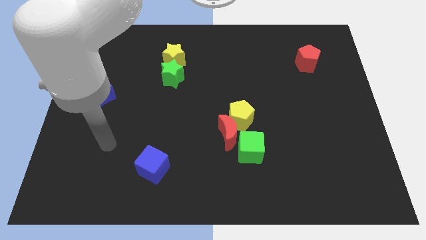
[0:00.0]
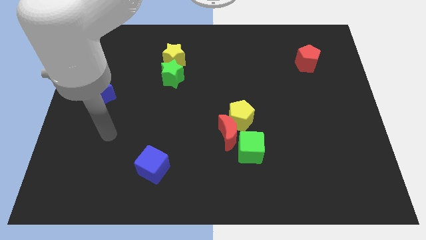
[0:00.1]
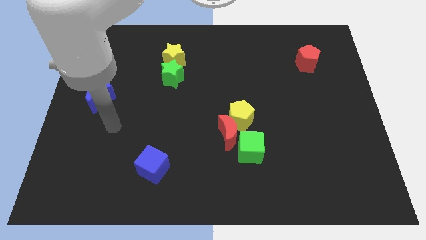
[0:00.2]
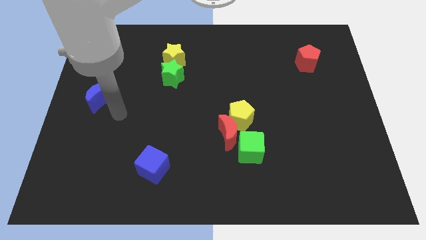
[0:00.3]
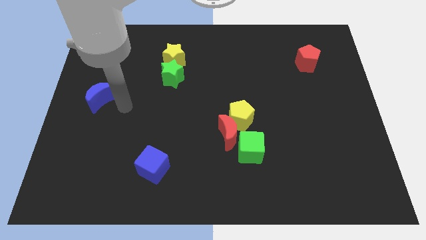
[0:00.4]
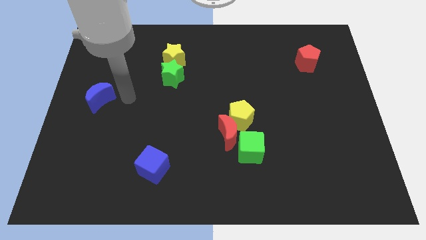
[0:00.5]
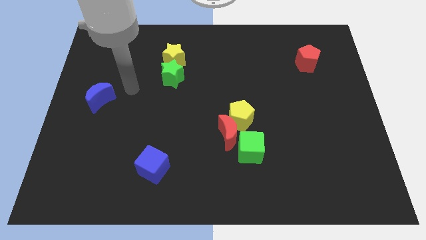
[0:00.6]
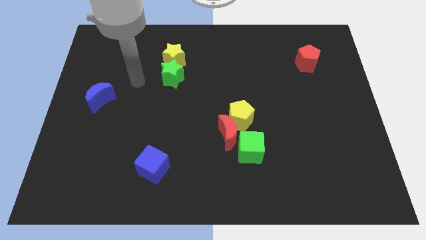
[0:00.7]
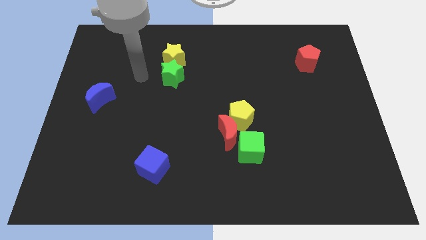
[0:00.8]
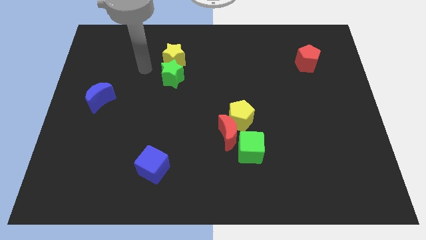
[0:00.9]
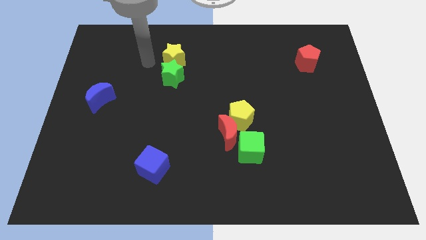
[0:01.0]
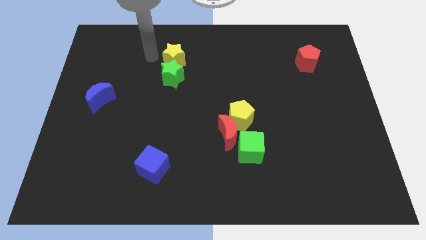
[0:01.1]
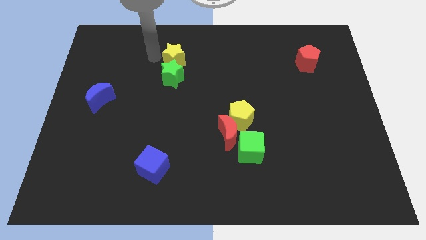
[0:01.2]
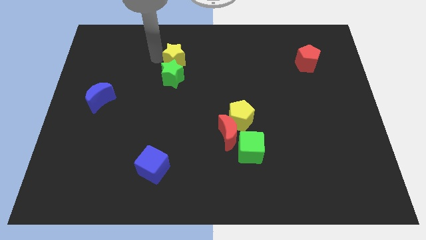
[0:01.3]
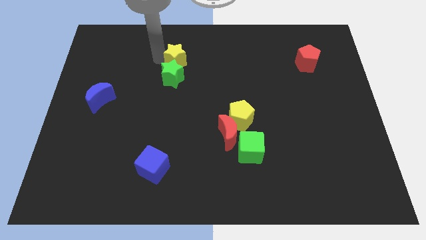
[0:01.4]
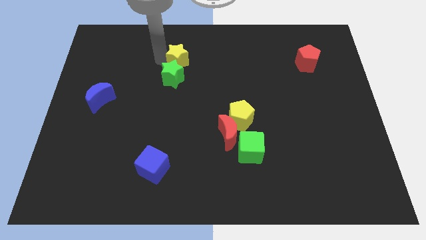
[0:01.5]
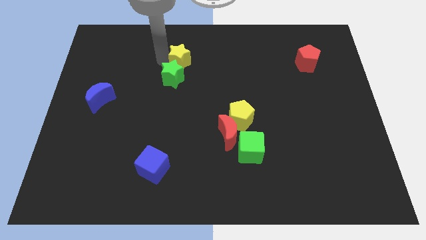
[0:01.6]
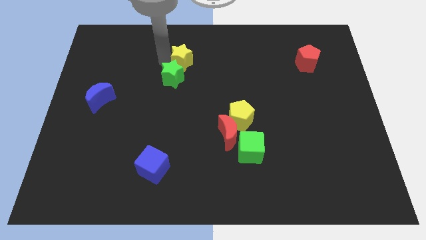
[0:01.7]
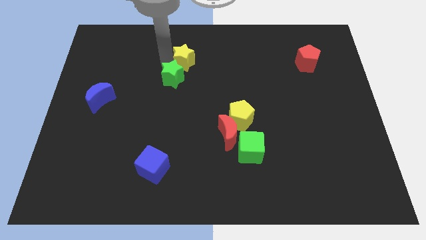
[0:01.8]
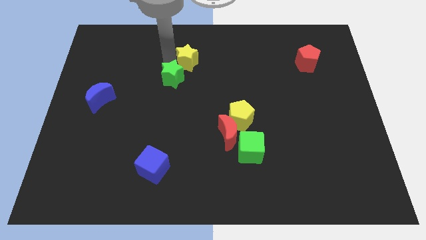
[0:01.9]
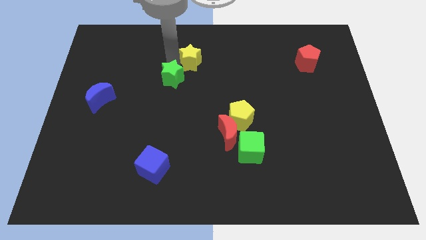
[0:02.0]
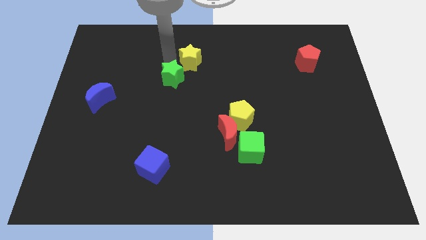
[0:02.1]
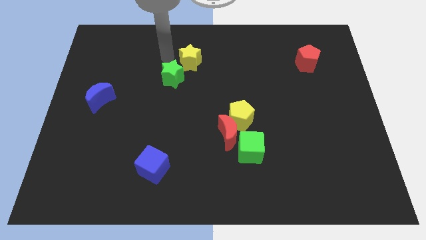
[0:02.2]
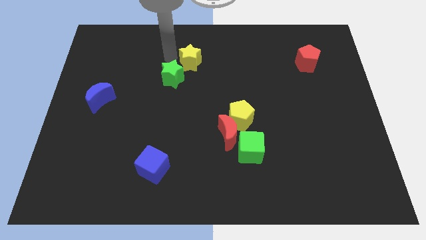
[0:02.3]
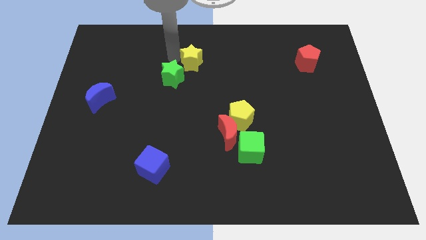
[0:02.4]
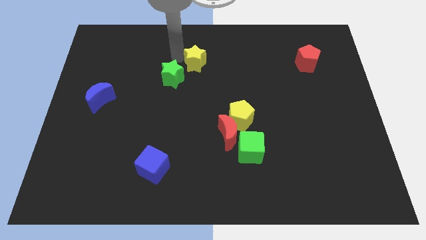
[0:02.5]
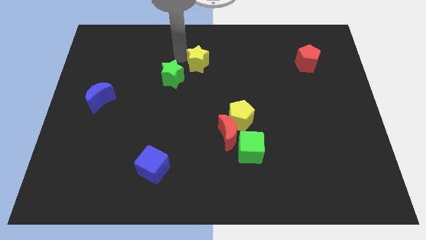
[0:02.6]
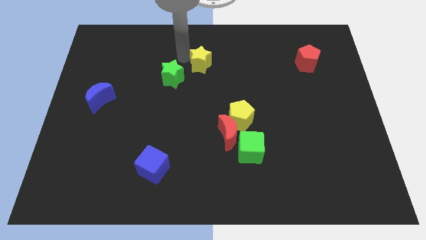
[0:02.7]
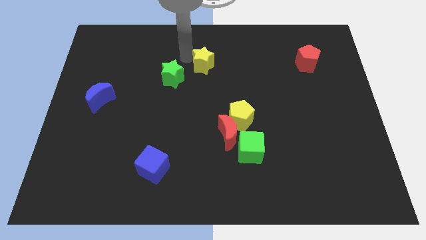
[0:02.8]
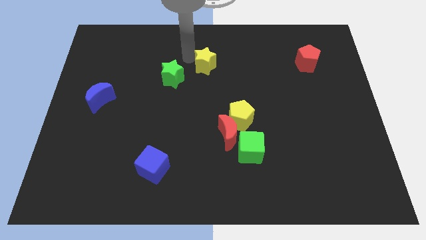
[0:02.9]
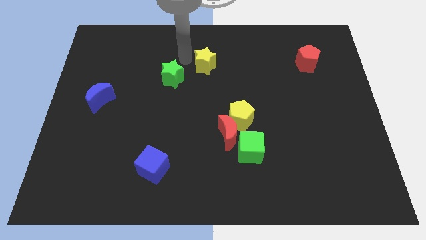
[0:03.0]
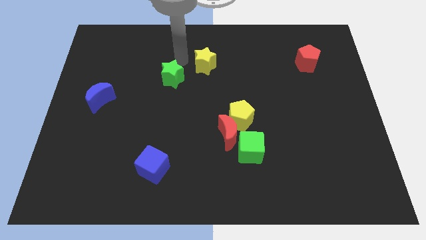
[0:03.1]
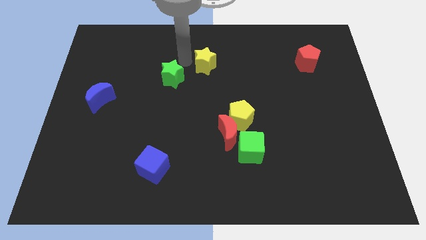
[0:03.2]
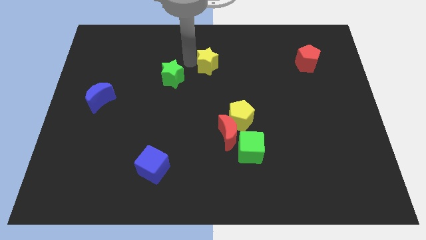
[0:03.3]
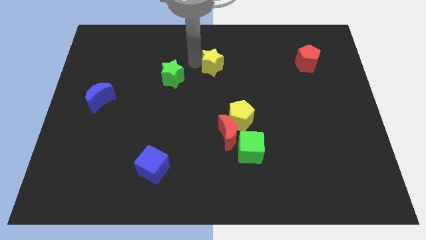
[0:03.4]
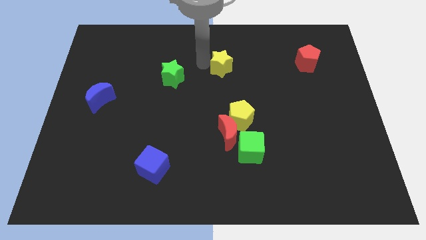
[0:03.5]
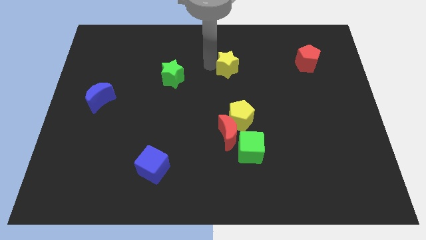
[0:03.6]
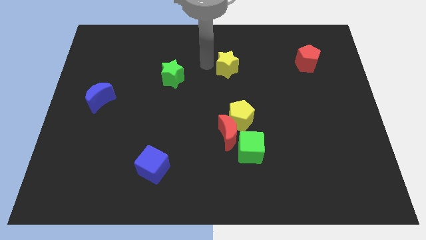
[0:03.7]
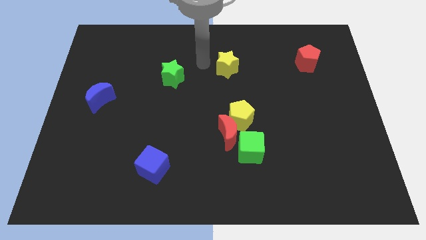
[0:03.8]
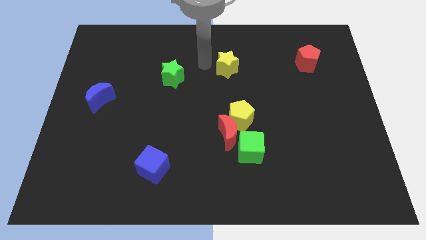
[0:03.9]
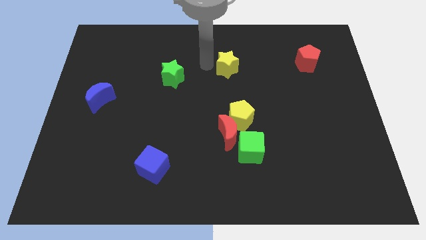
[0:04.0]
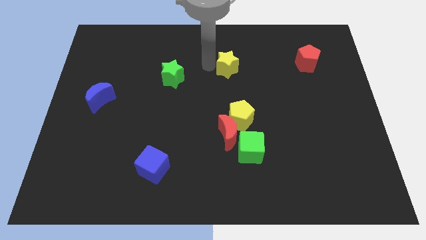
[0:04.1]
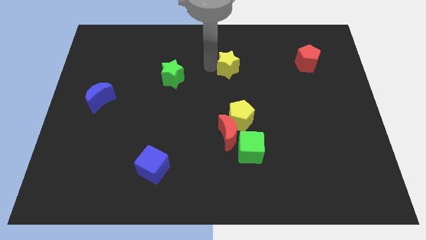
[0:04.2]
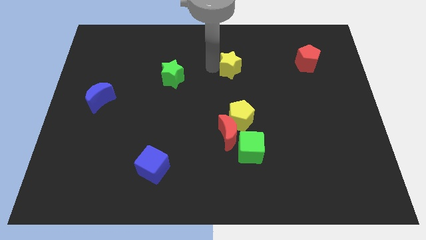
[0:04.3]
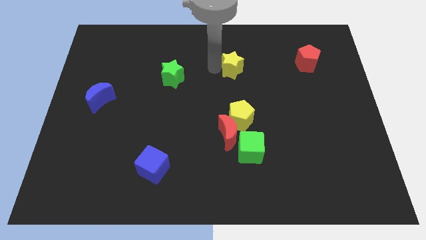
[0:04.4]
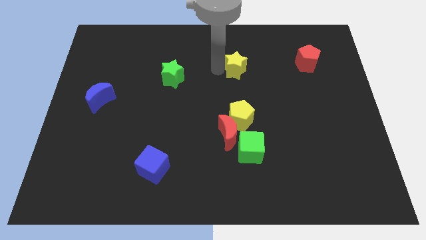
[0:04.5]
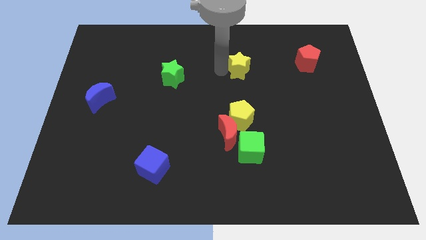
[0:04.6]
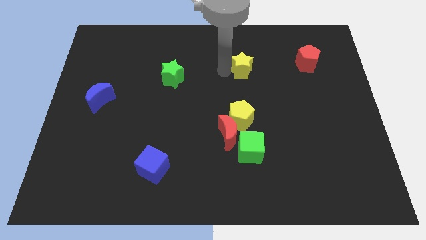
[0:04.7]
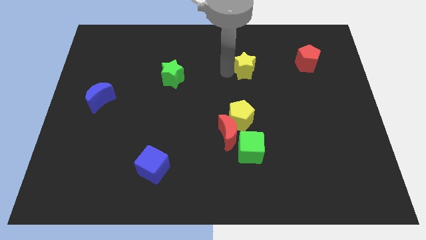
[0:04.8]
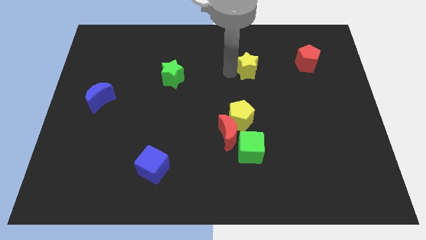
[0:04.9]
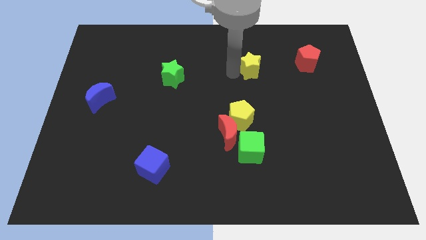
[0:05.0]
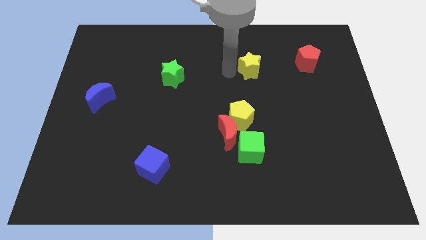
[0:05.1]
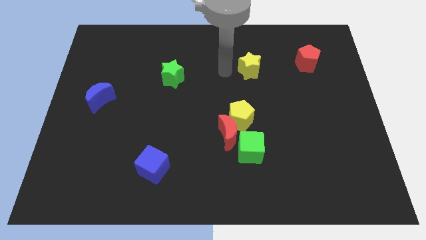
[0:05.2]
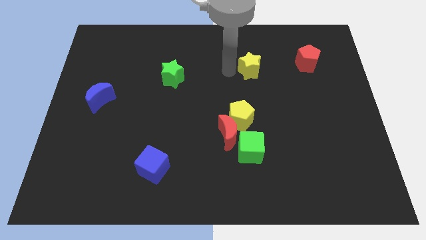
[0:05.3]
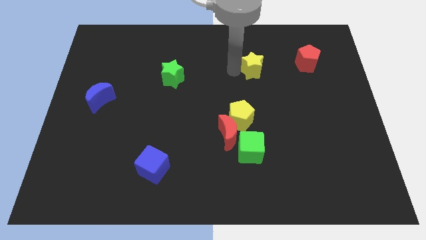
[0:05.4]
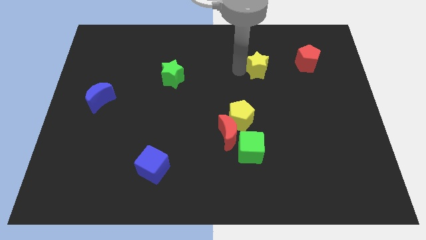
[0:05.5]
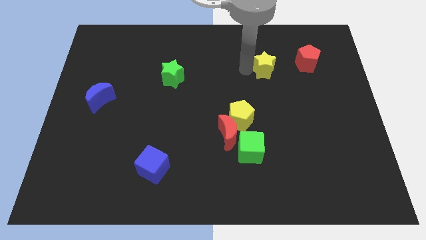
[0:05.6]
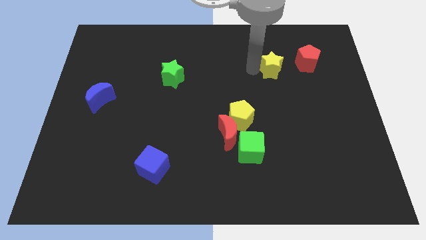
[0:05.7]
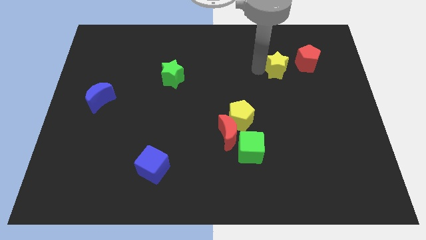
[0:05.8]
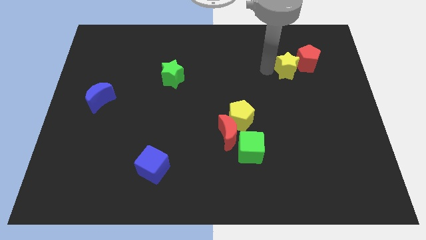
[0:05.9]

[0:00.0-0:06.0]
push the yellow star next to the red pentagon

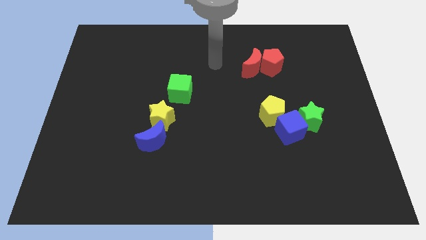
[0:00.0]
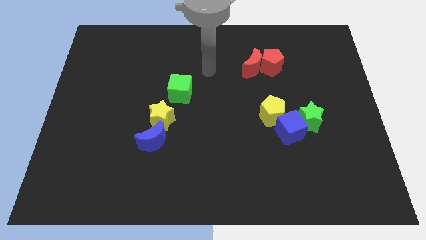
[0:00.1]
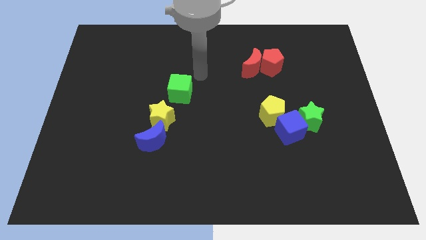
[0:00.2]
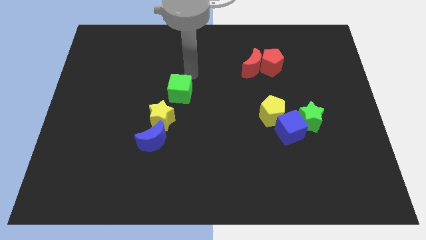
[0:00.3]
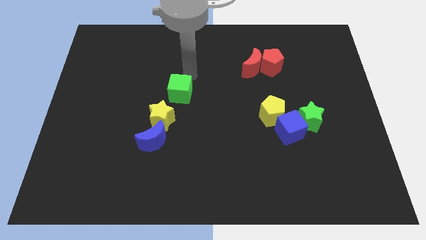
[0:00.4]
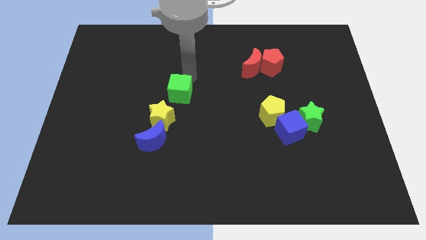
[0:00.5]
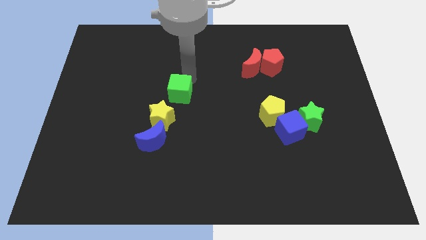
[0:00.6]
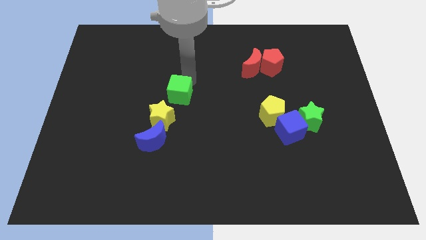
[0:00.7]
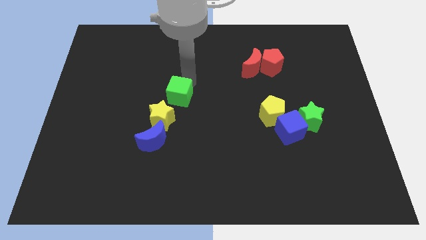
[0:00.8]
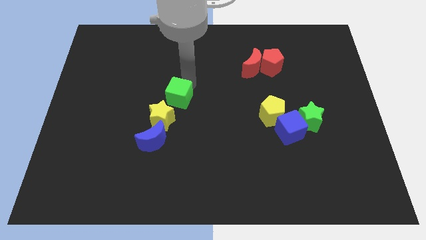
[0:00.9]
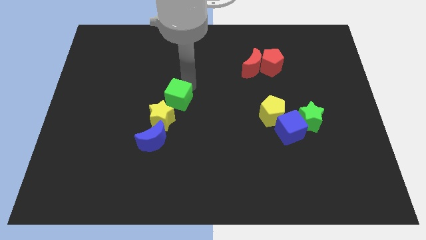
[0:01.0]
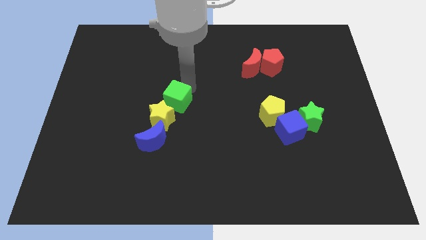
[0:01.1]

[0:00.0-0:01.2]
push the green cube towards the yellow star
